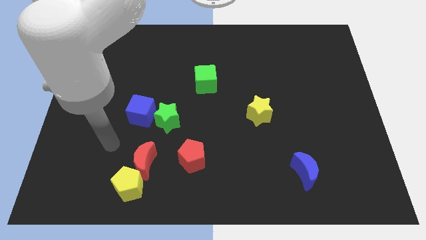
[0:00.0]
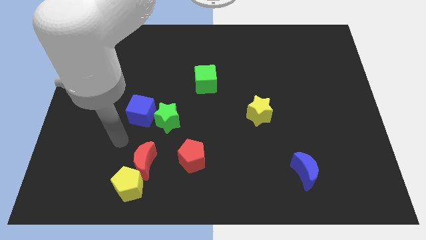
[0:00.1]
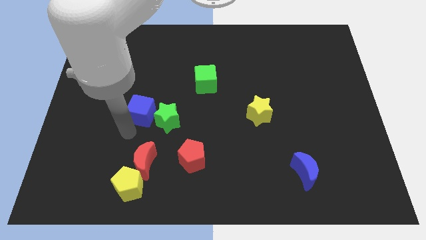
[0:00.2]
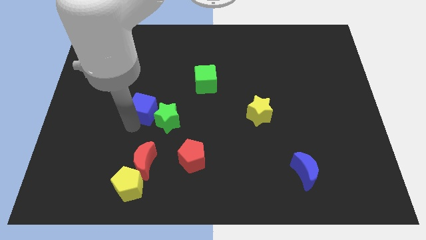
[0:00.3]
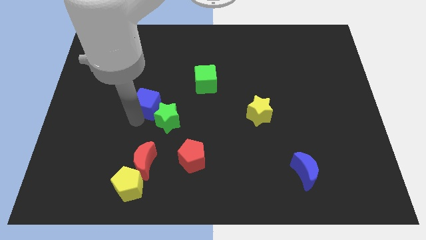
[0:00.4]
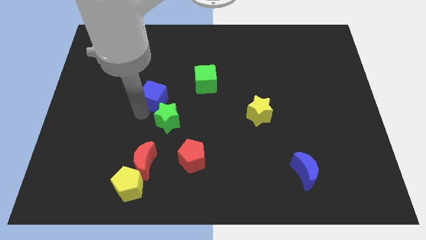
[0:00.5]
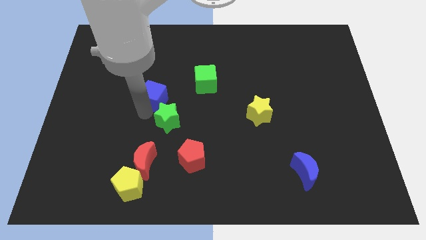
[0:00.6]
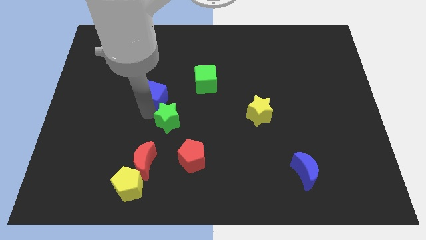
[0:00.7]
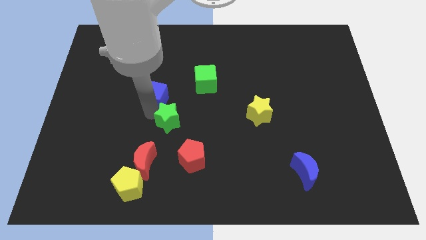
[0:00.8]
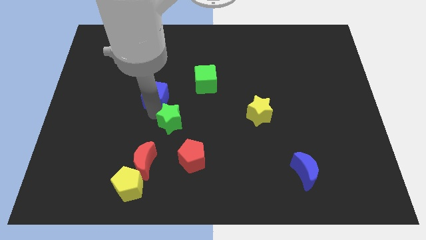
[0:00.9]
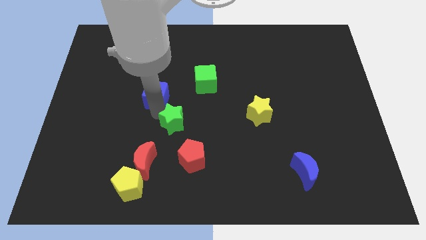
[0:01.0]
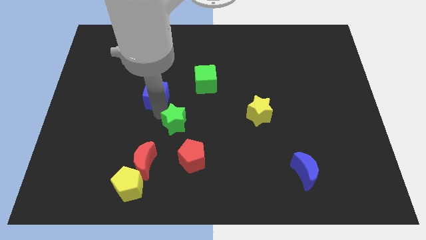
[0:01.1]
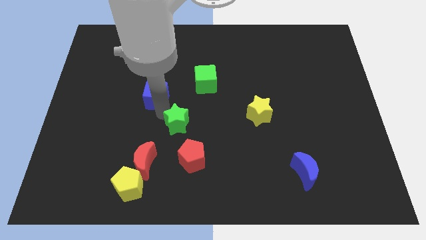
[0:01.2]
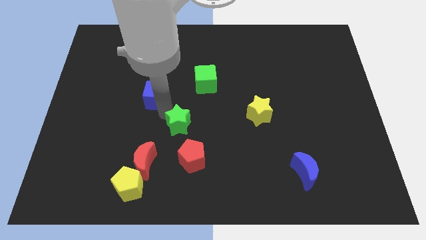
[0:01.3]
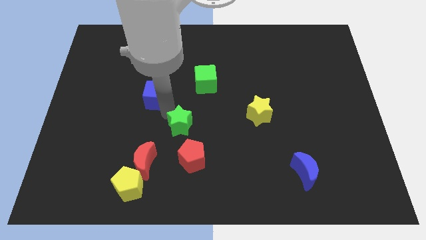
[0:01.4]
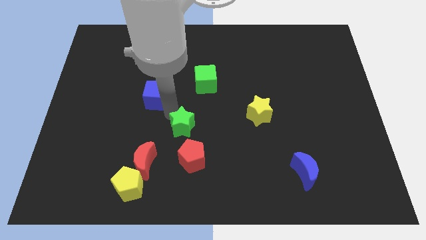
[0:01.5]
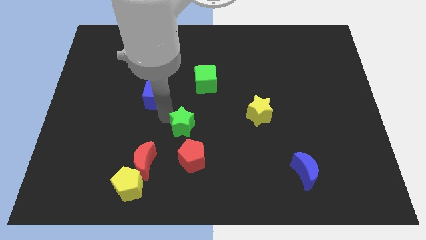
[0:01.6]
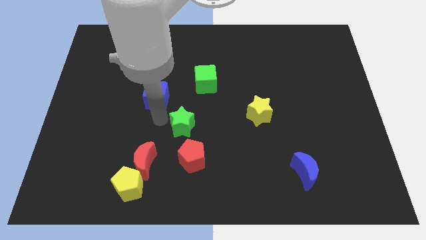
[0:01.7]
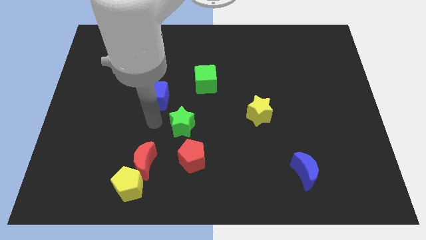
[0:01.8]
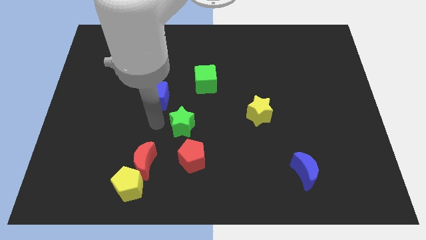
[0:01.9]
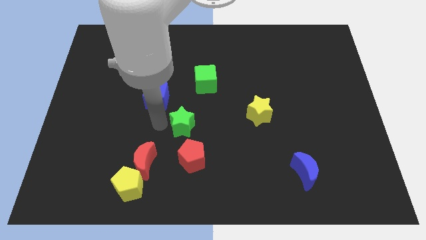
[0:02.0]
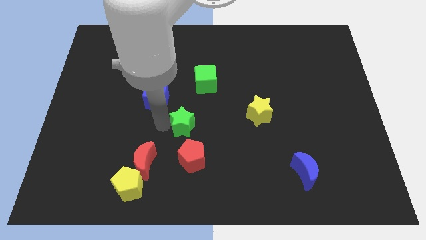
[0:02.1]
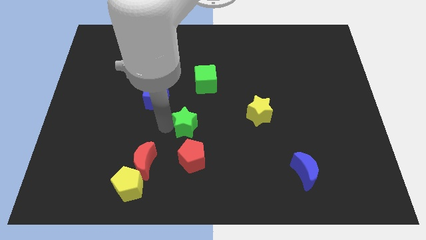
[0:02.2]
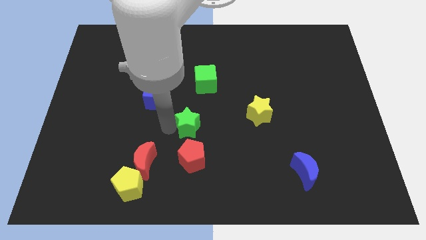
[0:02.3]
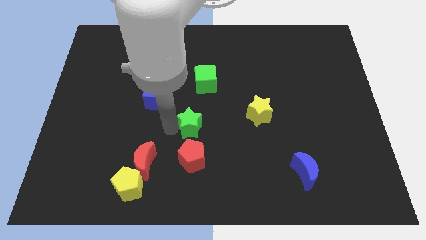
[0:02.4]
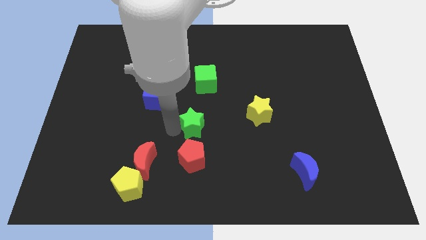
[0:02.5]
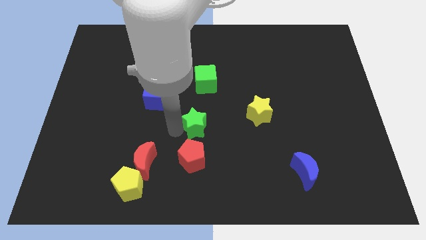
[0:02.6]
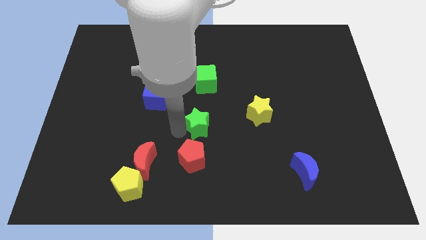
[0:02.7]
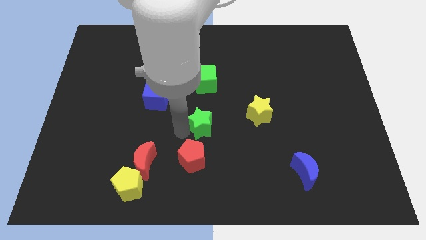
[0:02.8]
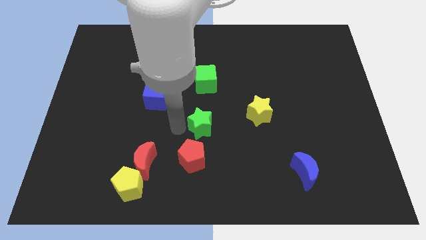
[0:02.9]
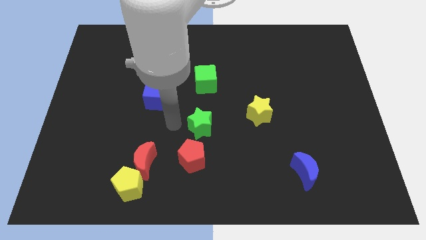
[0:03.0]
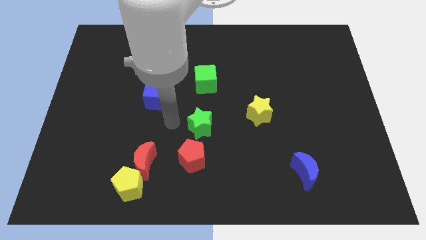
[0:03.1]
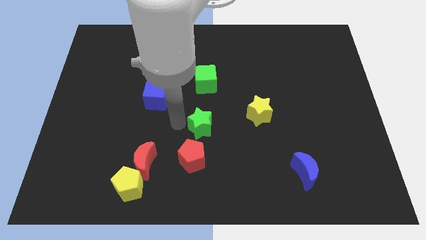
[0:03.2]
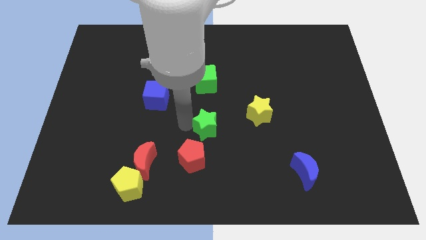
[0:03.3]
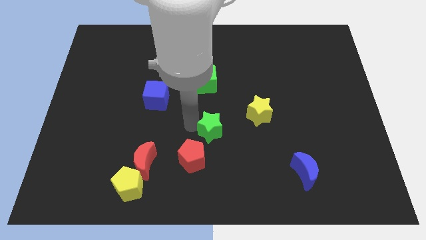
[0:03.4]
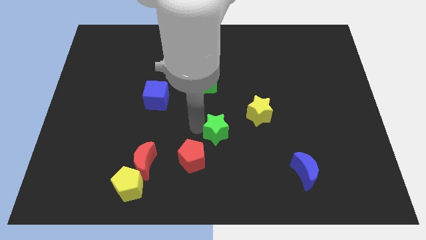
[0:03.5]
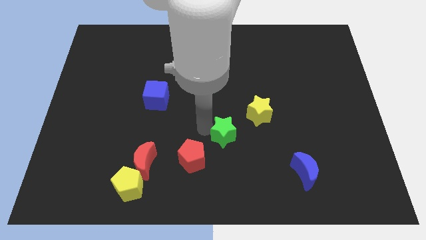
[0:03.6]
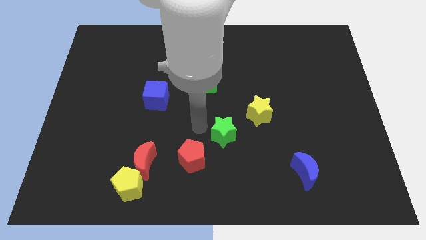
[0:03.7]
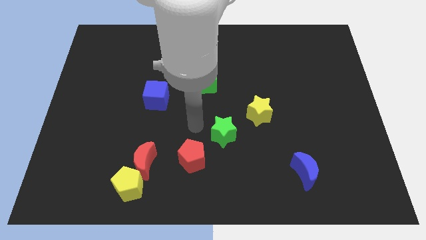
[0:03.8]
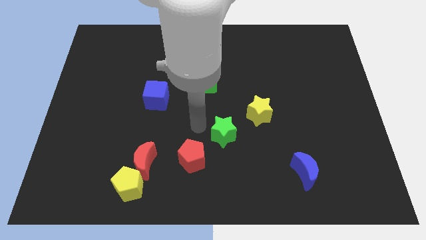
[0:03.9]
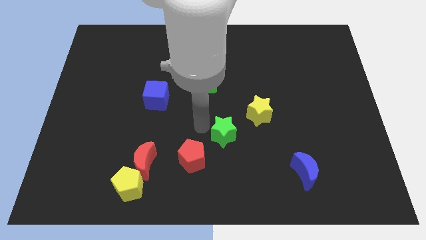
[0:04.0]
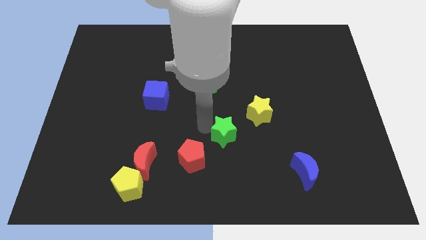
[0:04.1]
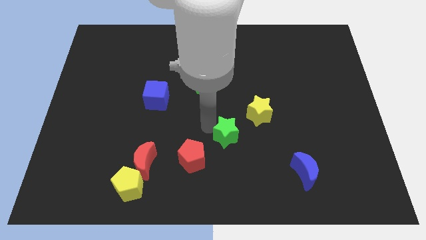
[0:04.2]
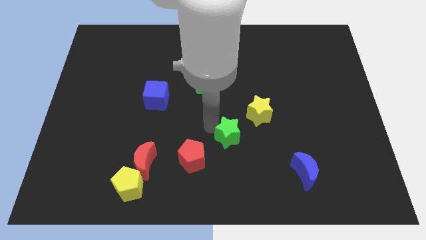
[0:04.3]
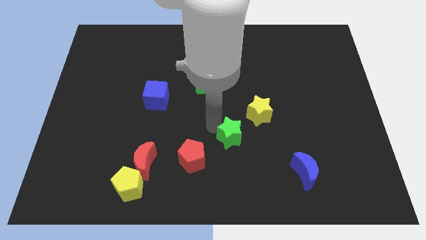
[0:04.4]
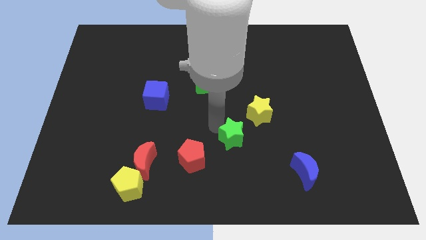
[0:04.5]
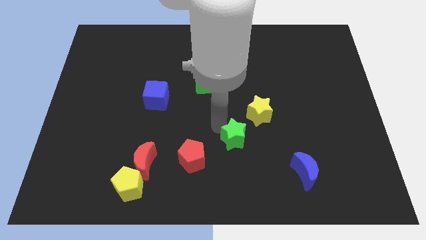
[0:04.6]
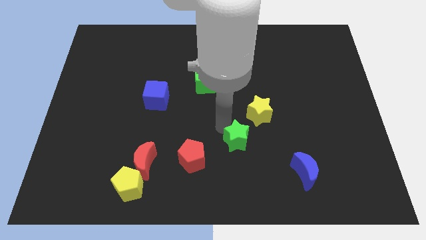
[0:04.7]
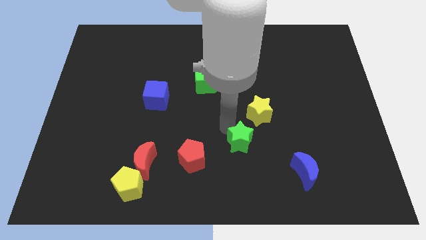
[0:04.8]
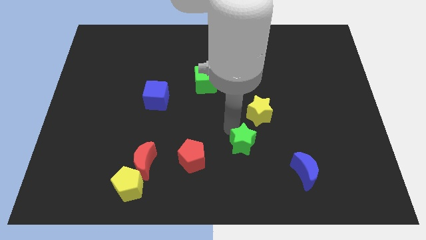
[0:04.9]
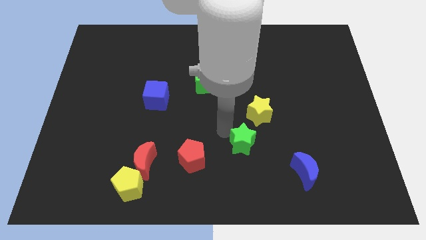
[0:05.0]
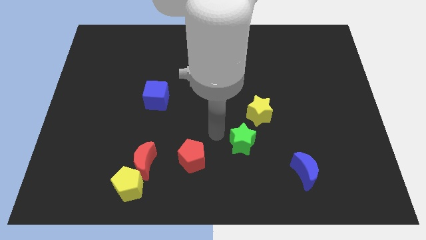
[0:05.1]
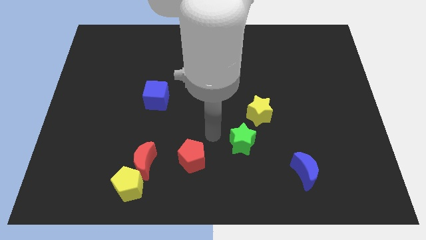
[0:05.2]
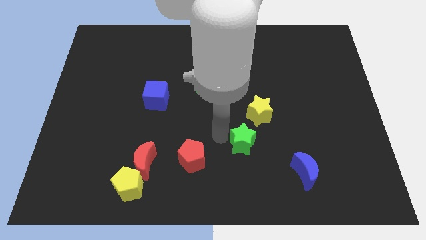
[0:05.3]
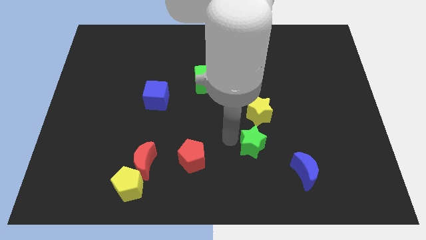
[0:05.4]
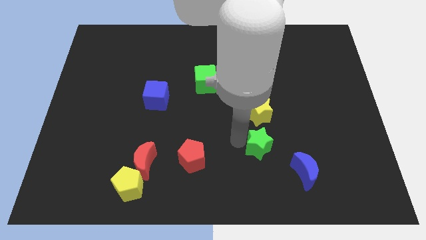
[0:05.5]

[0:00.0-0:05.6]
put the green star to the top left of the blue moon
